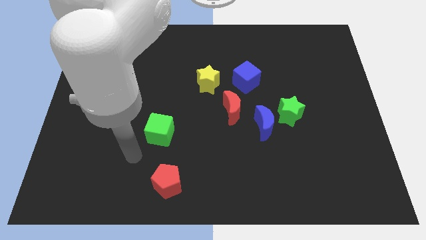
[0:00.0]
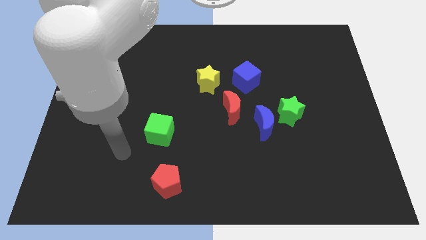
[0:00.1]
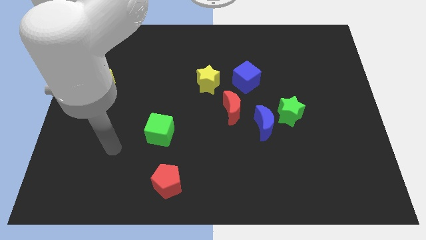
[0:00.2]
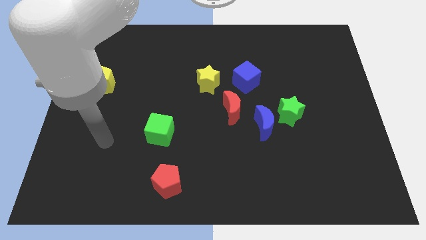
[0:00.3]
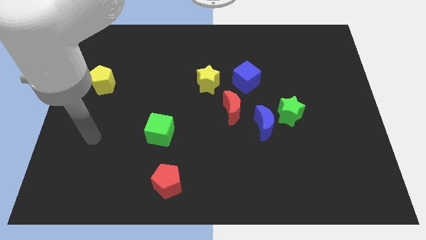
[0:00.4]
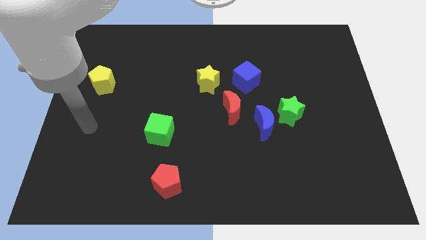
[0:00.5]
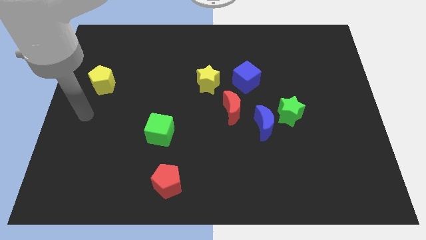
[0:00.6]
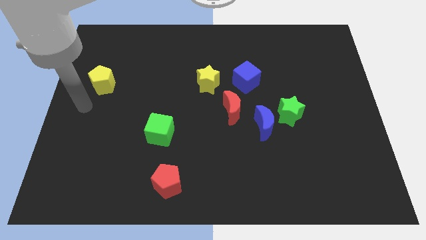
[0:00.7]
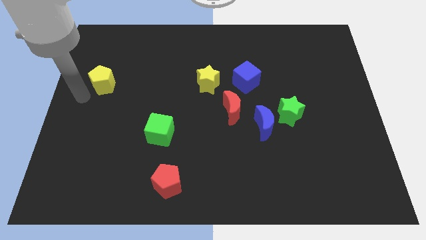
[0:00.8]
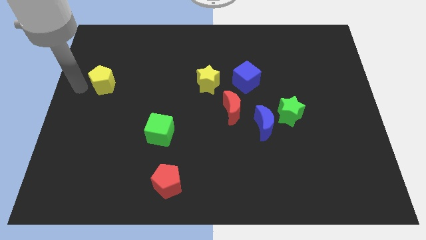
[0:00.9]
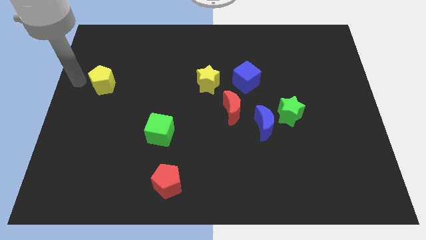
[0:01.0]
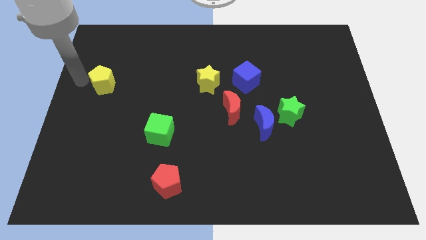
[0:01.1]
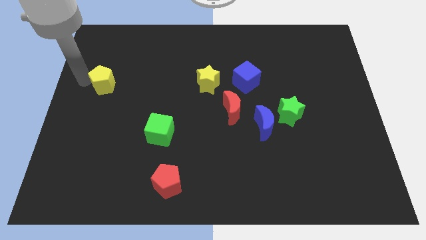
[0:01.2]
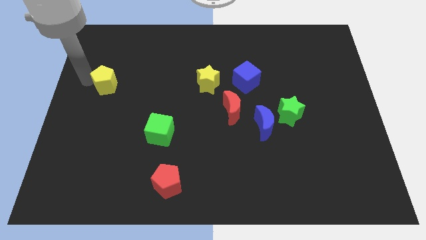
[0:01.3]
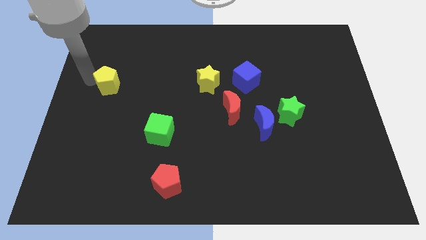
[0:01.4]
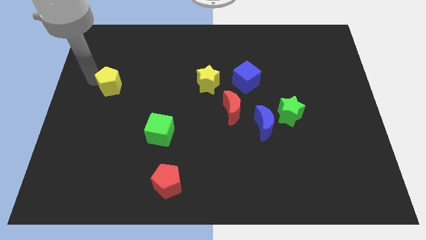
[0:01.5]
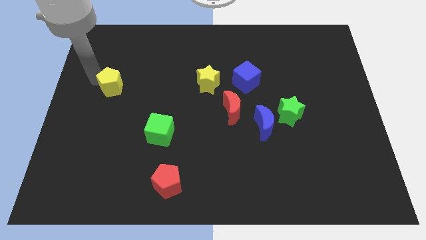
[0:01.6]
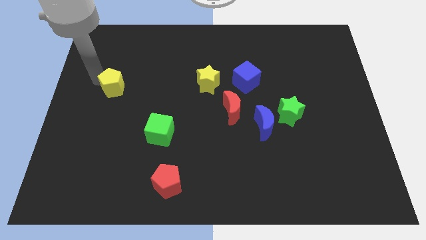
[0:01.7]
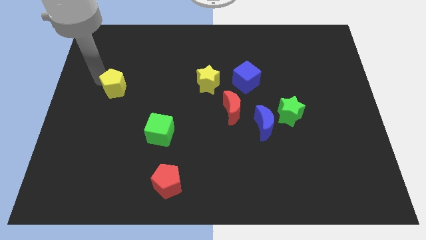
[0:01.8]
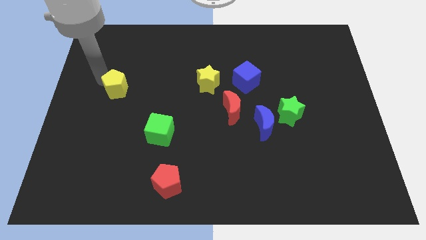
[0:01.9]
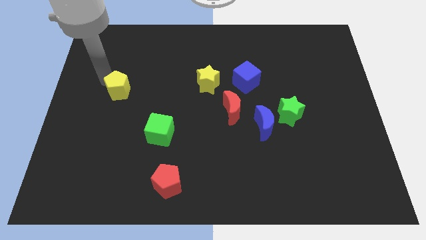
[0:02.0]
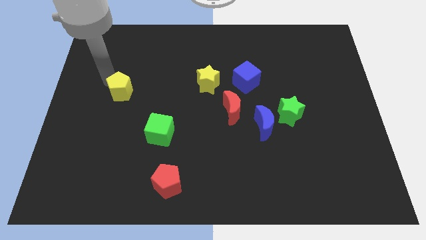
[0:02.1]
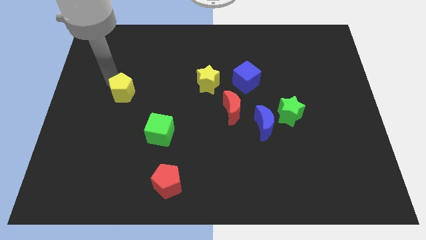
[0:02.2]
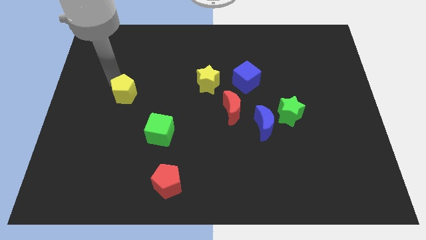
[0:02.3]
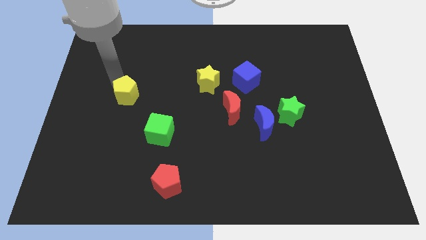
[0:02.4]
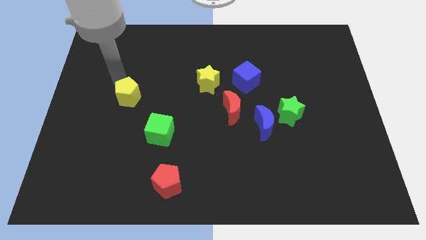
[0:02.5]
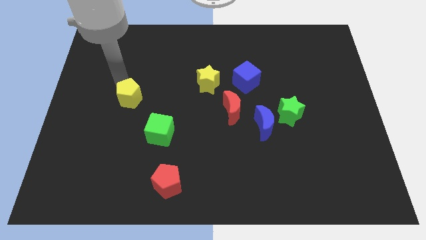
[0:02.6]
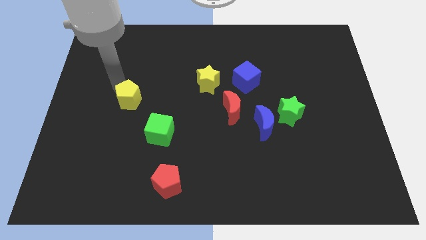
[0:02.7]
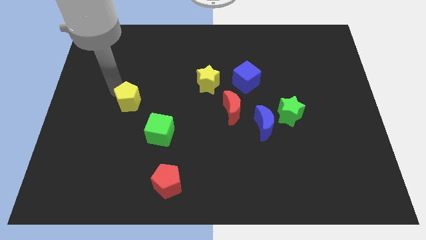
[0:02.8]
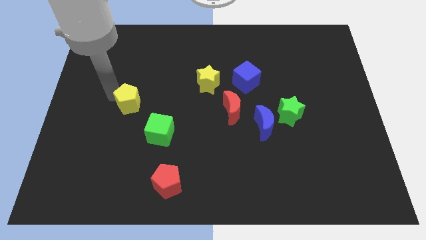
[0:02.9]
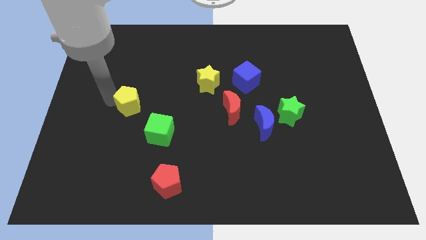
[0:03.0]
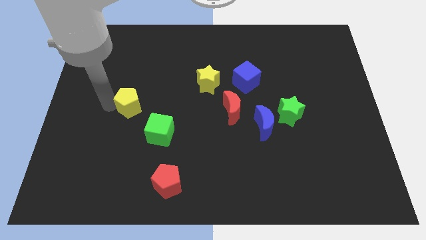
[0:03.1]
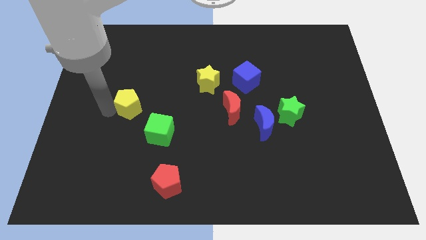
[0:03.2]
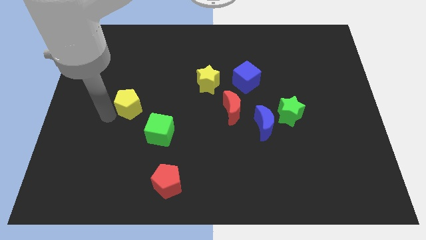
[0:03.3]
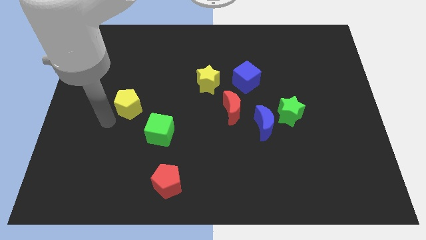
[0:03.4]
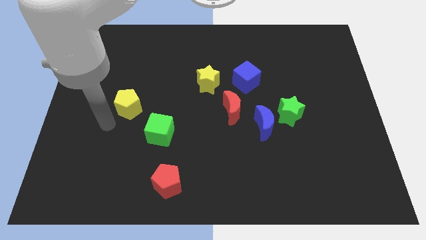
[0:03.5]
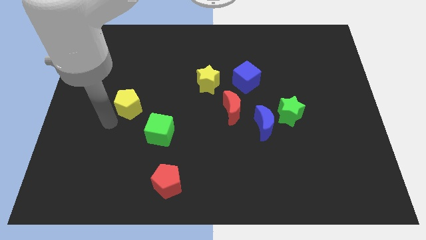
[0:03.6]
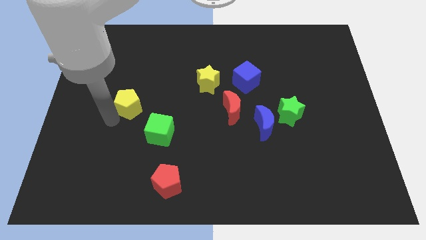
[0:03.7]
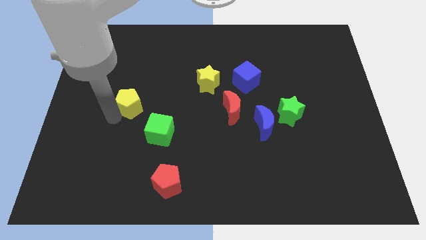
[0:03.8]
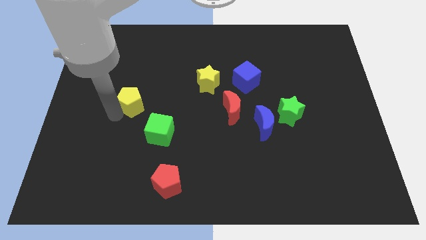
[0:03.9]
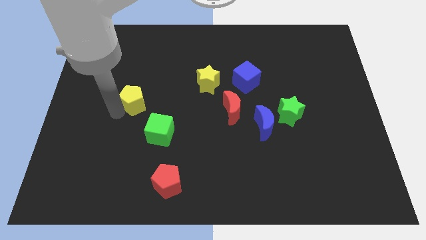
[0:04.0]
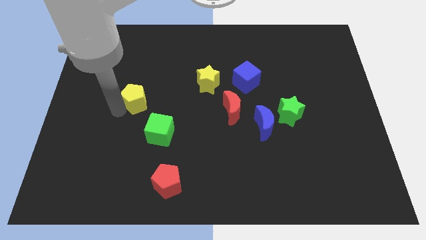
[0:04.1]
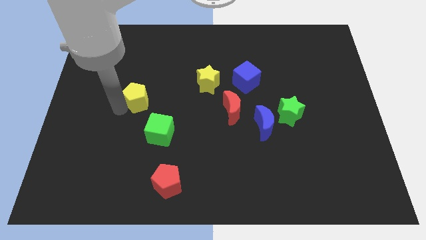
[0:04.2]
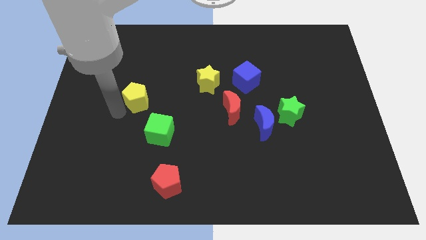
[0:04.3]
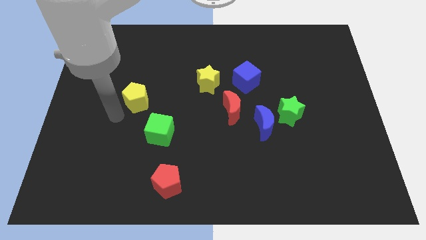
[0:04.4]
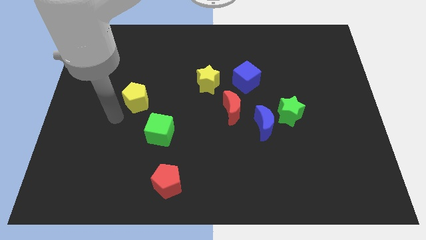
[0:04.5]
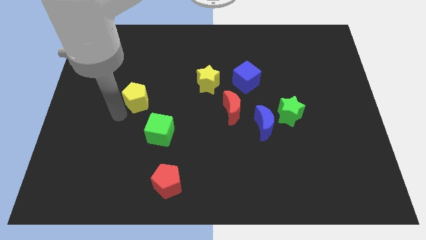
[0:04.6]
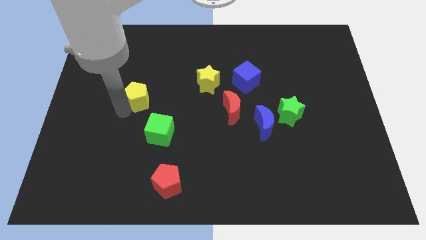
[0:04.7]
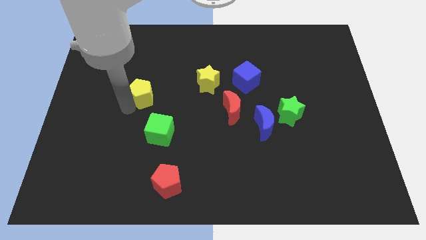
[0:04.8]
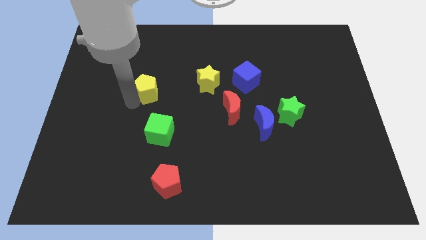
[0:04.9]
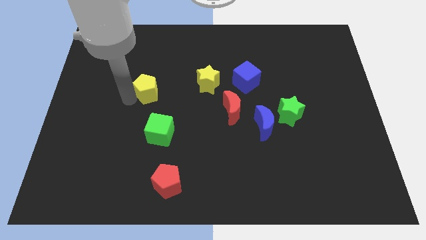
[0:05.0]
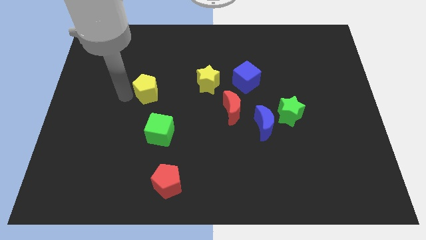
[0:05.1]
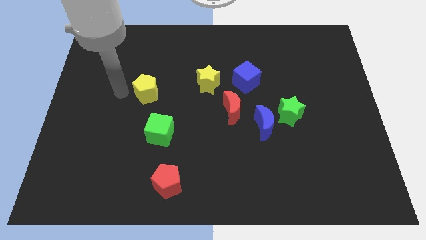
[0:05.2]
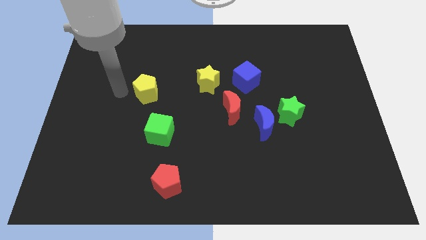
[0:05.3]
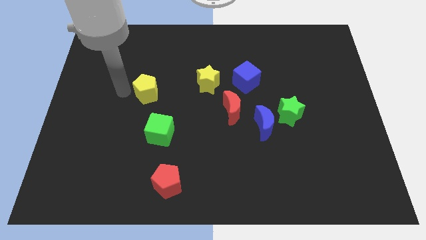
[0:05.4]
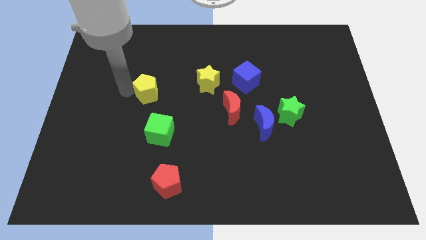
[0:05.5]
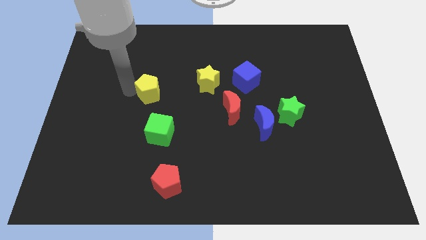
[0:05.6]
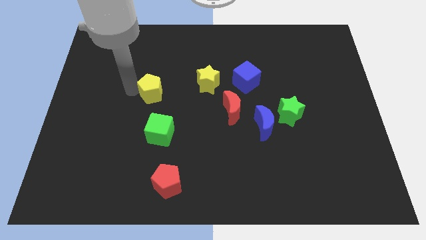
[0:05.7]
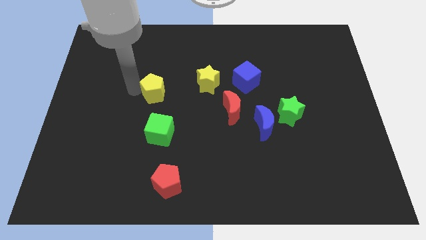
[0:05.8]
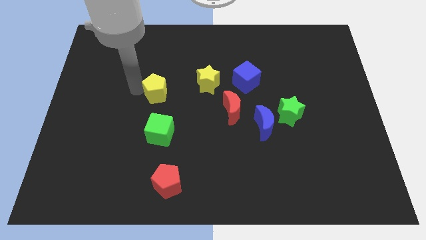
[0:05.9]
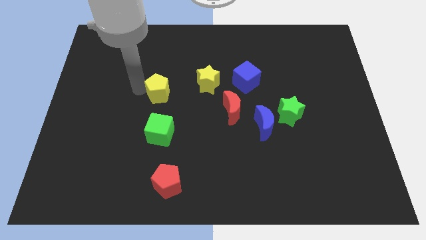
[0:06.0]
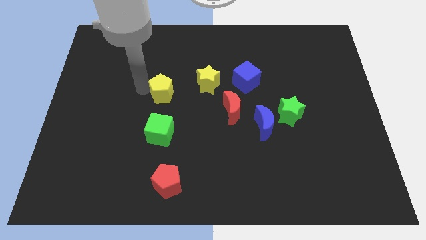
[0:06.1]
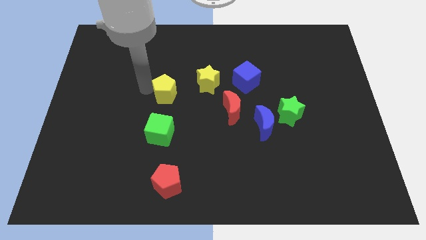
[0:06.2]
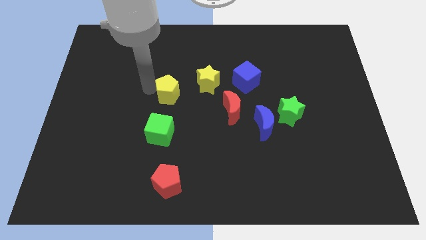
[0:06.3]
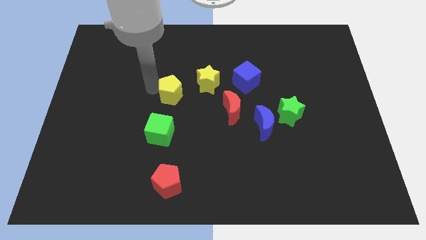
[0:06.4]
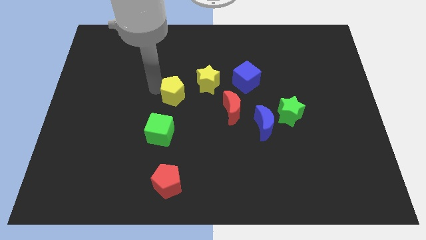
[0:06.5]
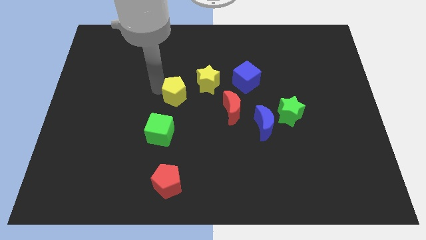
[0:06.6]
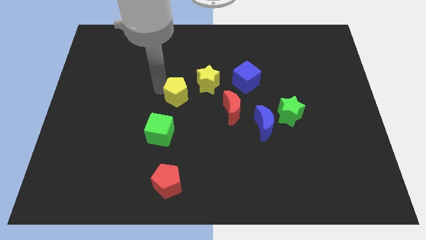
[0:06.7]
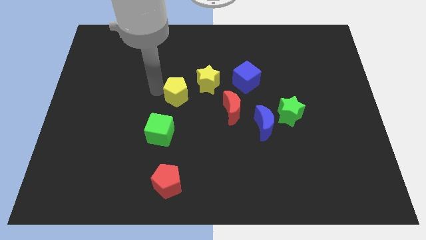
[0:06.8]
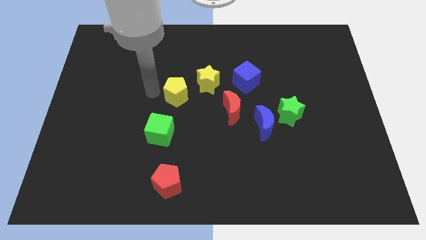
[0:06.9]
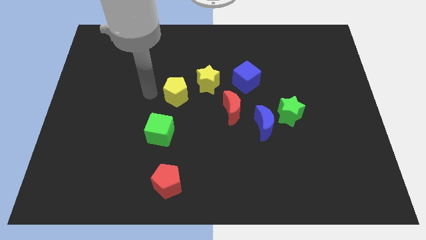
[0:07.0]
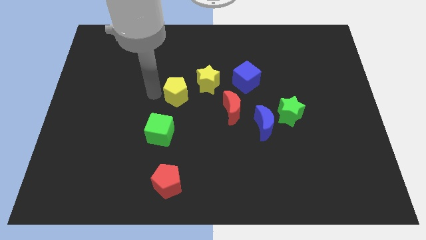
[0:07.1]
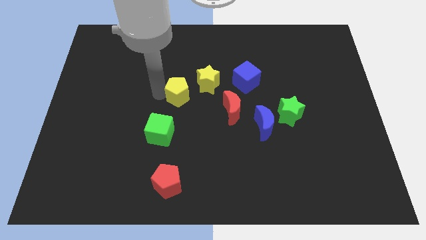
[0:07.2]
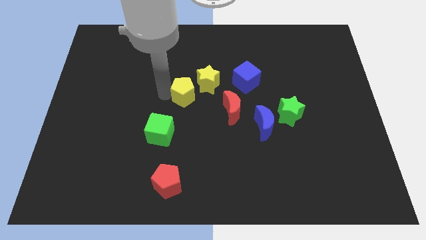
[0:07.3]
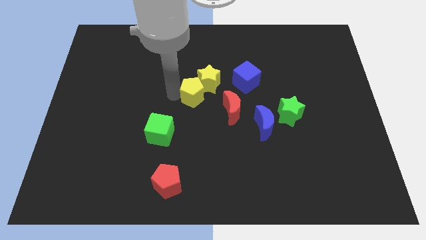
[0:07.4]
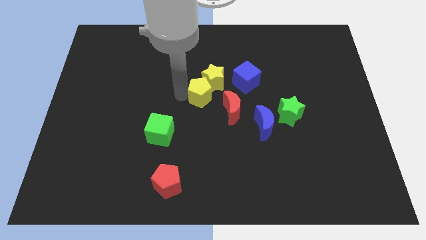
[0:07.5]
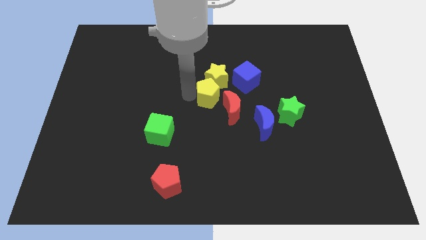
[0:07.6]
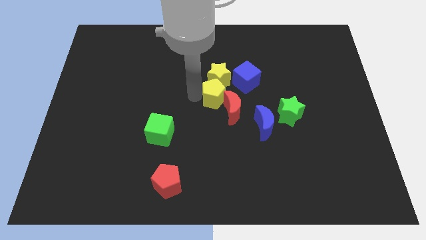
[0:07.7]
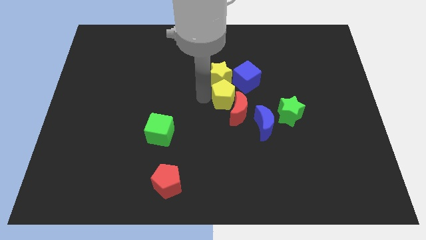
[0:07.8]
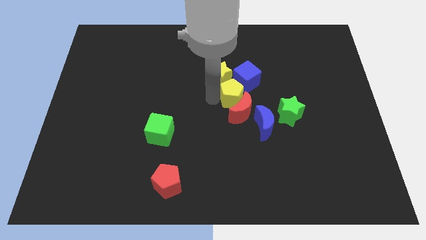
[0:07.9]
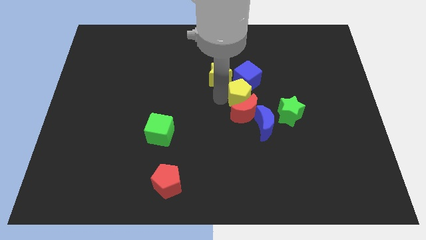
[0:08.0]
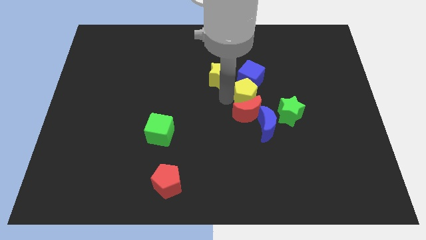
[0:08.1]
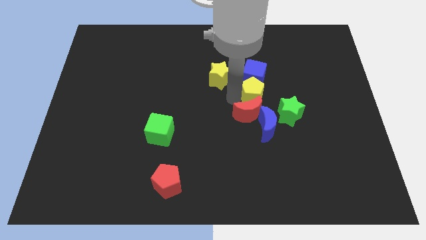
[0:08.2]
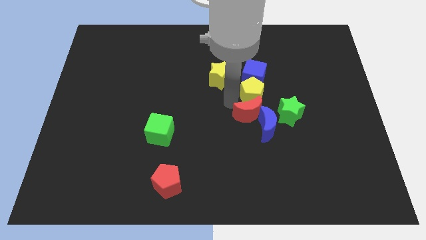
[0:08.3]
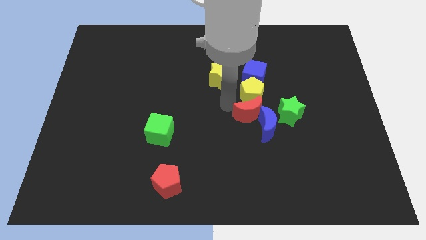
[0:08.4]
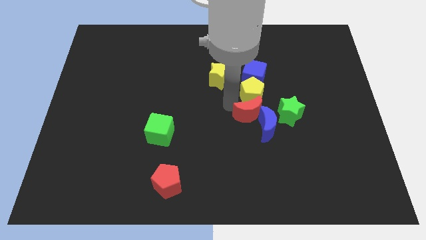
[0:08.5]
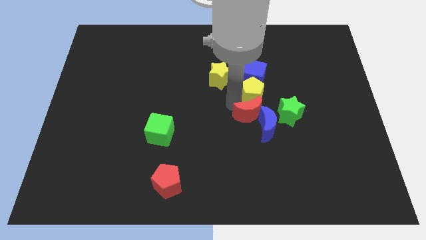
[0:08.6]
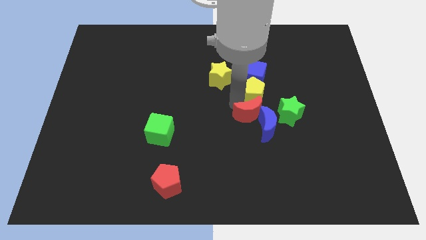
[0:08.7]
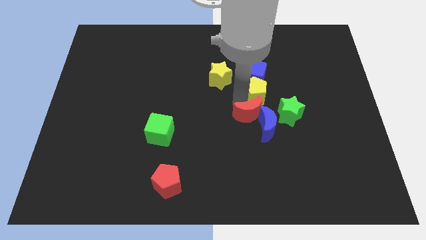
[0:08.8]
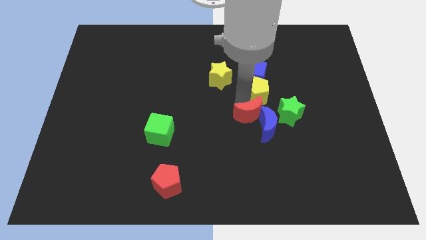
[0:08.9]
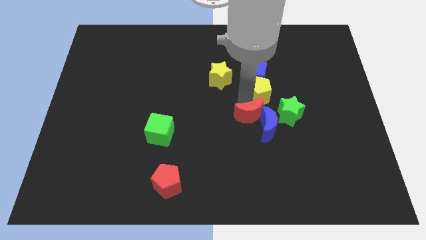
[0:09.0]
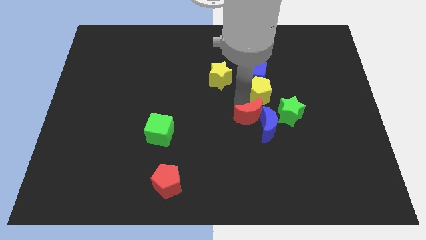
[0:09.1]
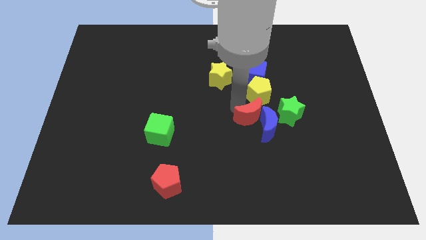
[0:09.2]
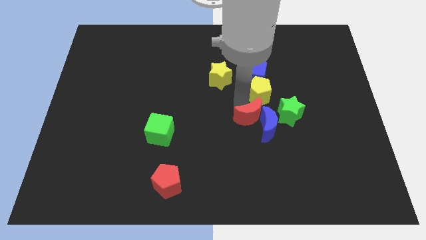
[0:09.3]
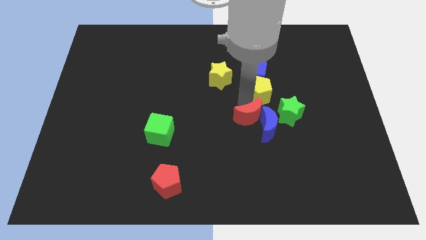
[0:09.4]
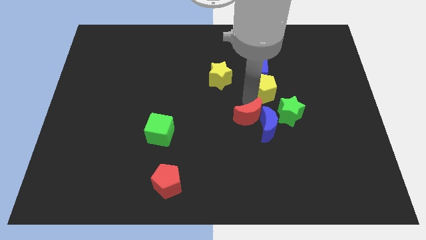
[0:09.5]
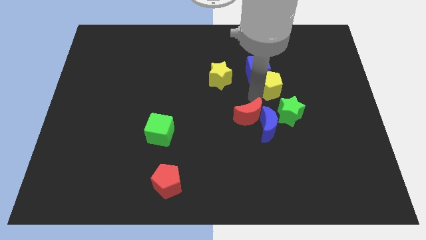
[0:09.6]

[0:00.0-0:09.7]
push the yellow pentagon to the top side of the green star
